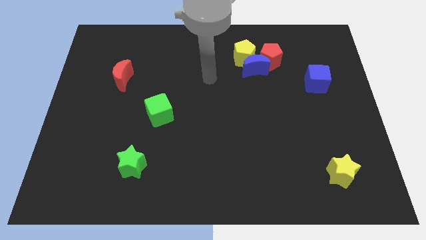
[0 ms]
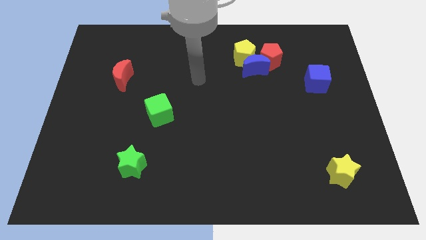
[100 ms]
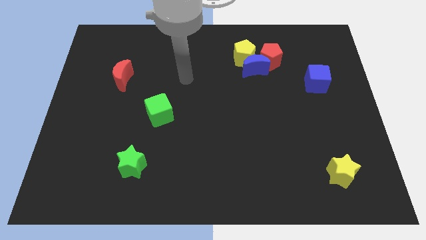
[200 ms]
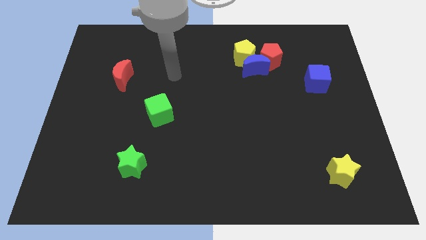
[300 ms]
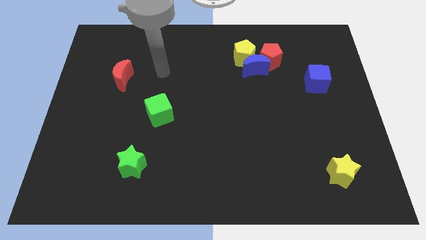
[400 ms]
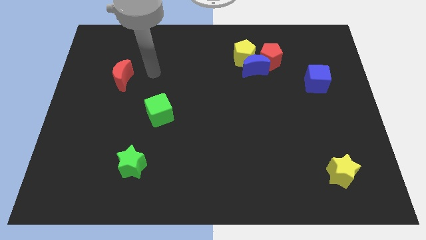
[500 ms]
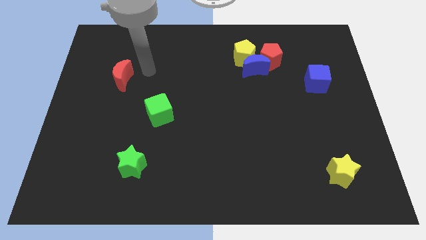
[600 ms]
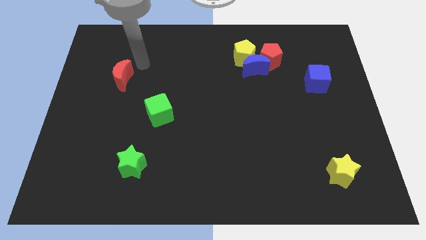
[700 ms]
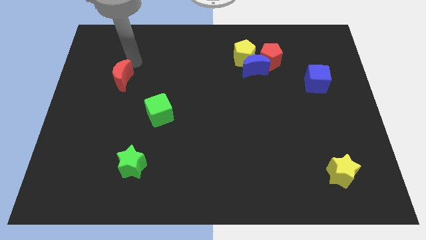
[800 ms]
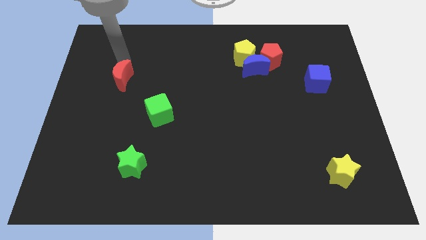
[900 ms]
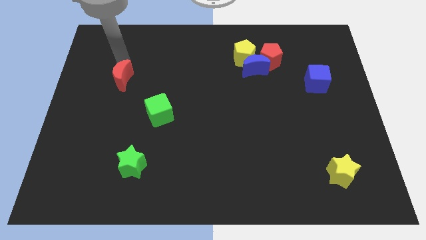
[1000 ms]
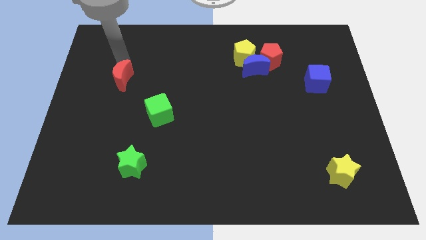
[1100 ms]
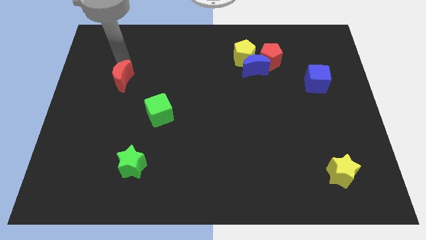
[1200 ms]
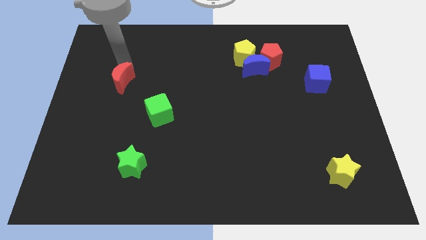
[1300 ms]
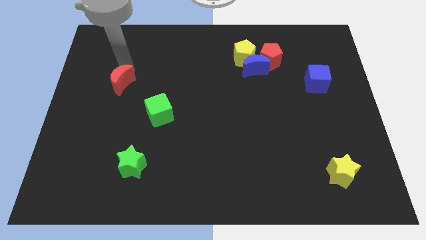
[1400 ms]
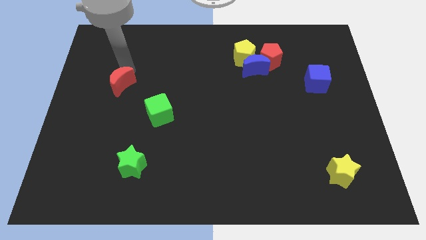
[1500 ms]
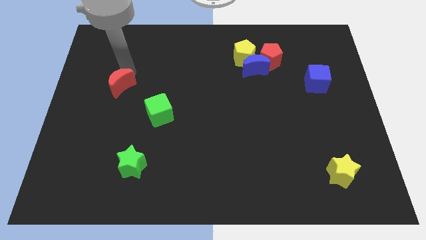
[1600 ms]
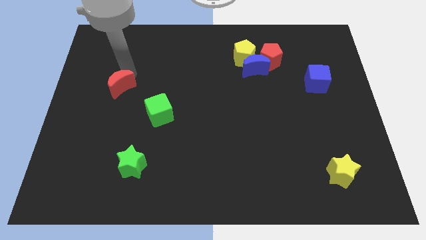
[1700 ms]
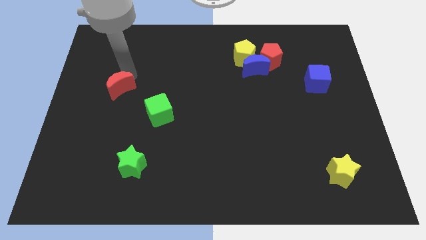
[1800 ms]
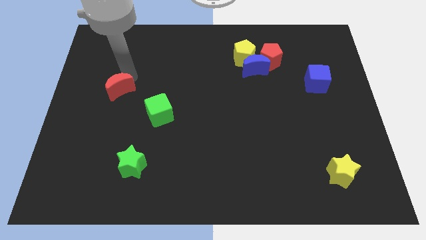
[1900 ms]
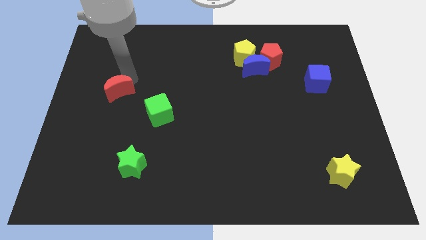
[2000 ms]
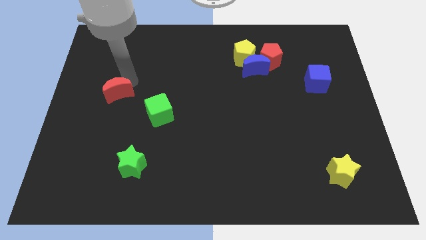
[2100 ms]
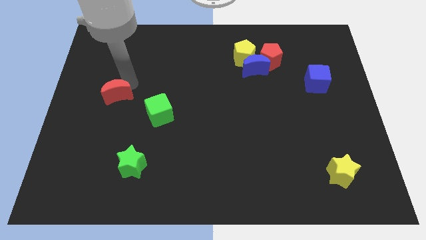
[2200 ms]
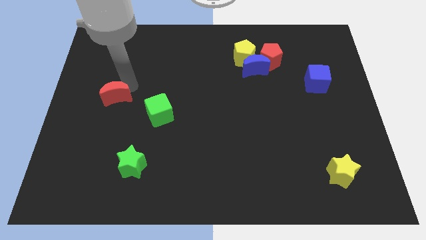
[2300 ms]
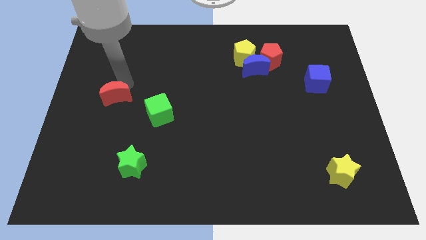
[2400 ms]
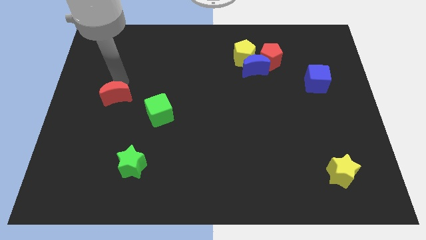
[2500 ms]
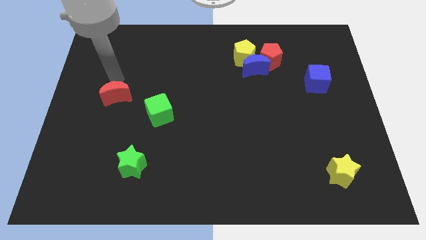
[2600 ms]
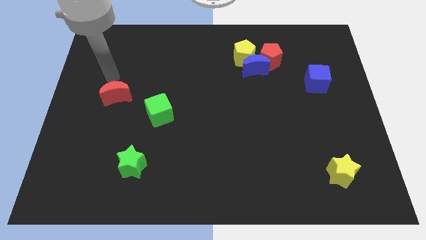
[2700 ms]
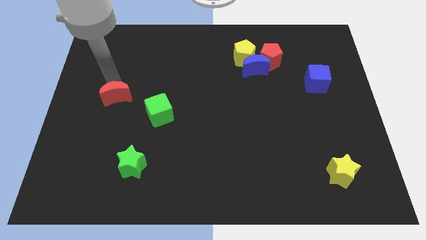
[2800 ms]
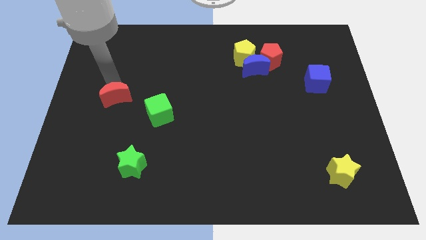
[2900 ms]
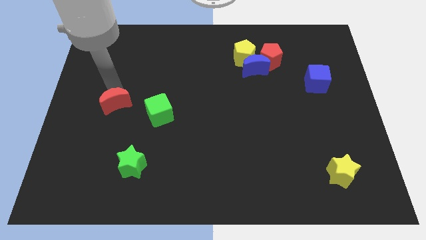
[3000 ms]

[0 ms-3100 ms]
push the red moon down a little bit

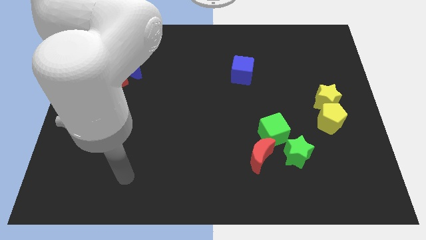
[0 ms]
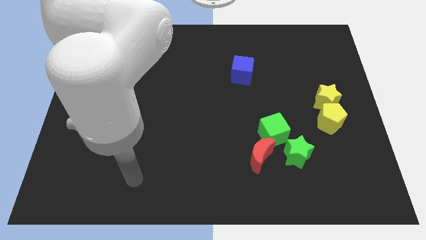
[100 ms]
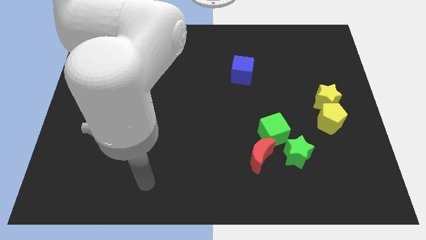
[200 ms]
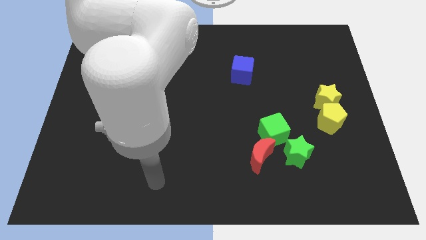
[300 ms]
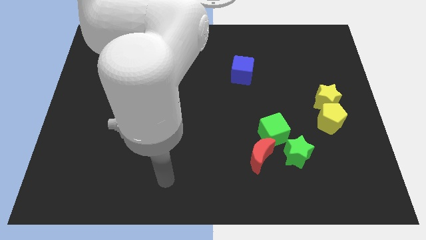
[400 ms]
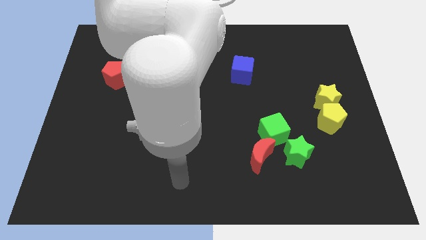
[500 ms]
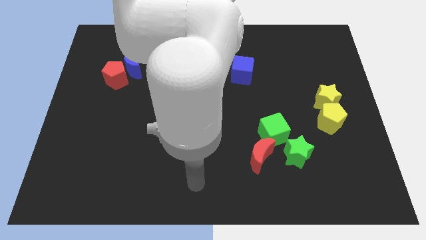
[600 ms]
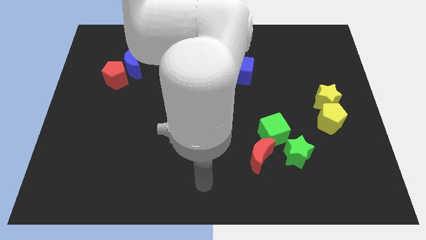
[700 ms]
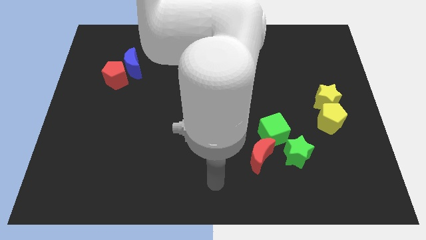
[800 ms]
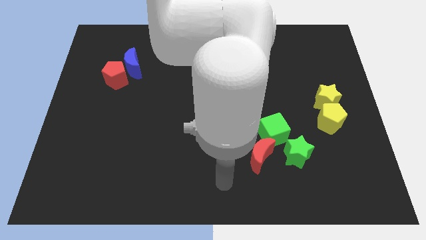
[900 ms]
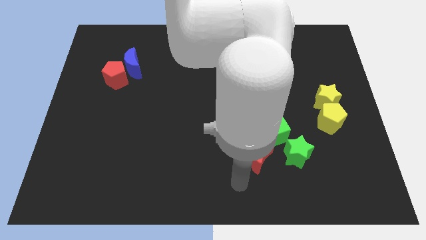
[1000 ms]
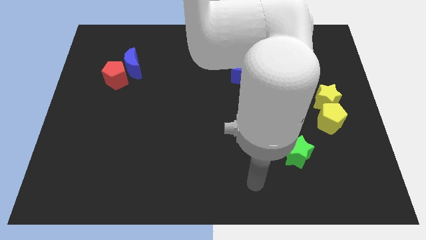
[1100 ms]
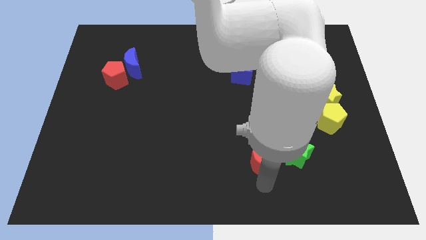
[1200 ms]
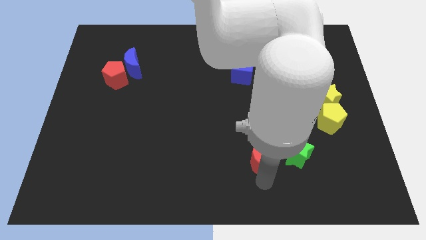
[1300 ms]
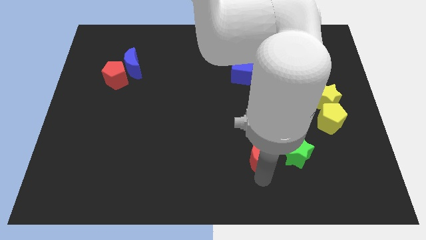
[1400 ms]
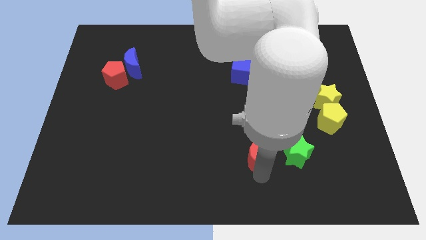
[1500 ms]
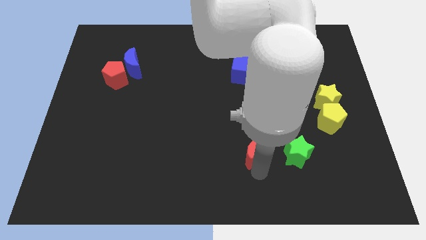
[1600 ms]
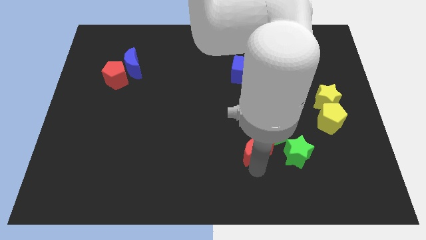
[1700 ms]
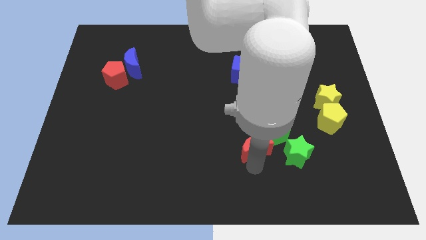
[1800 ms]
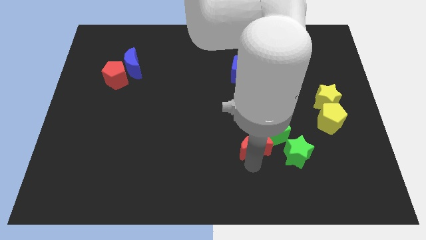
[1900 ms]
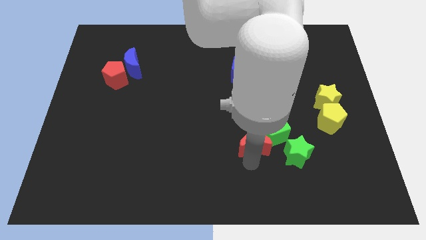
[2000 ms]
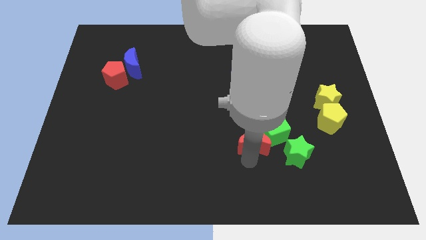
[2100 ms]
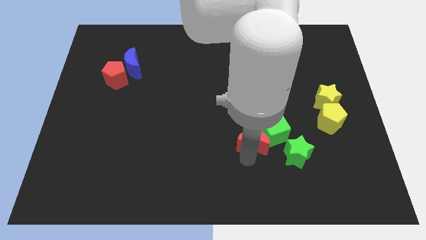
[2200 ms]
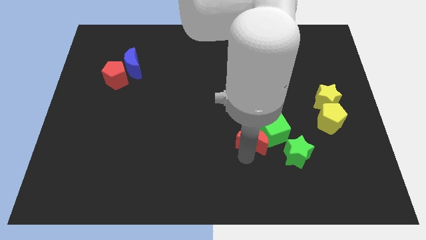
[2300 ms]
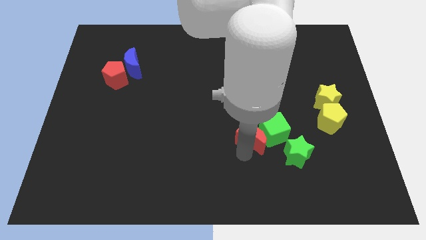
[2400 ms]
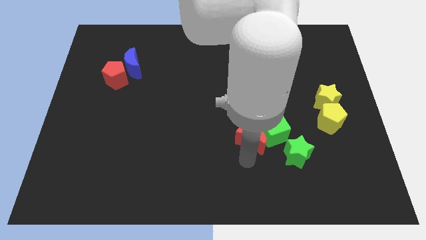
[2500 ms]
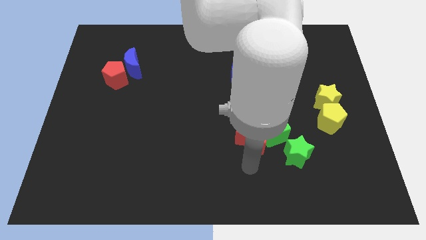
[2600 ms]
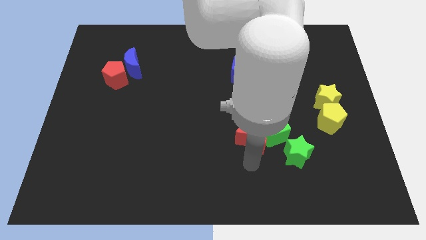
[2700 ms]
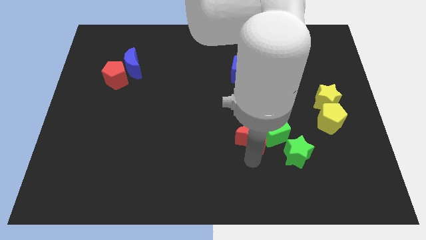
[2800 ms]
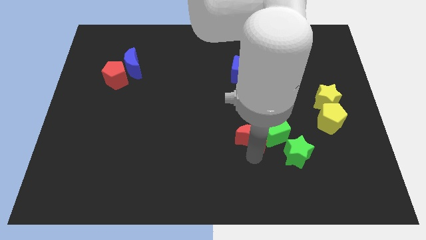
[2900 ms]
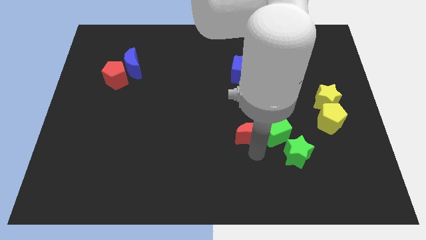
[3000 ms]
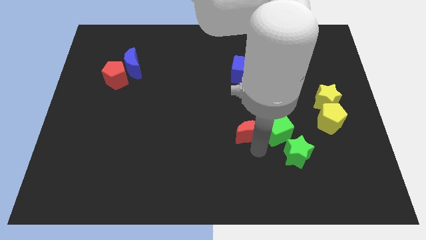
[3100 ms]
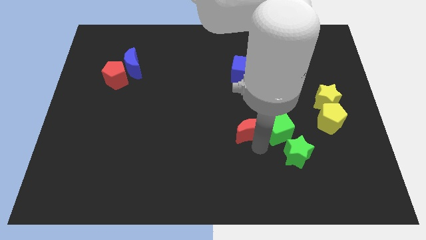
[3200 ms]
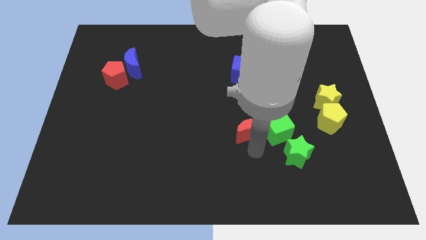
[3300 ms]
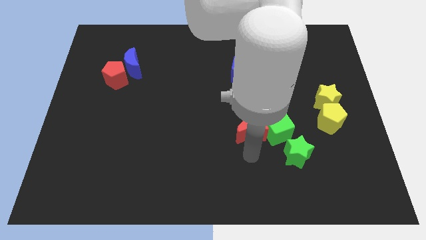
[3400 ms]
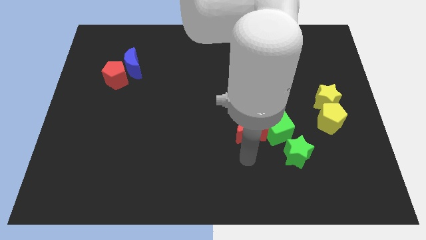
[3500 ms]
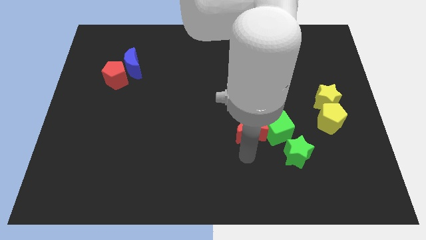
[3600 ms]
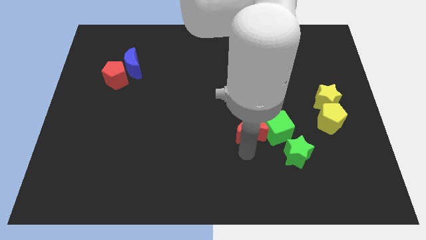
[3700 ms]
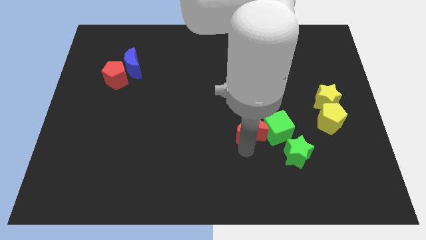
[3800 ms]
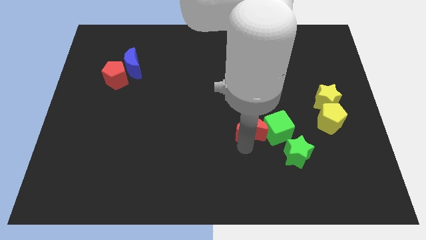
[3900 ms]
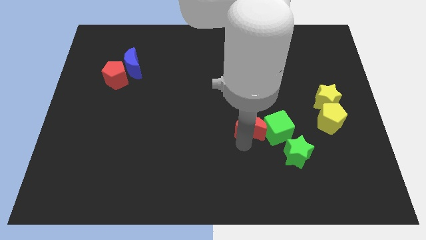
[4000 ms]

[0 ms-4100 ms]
slightly slide the red moon upwards

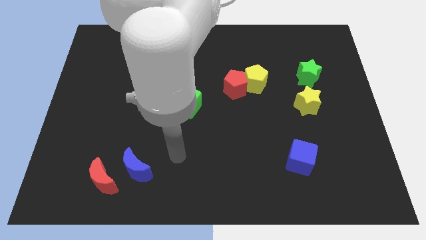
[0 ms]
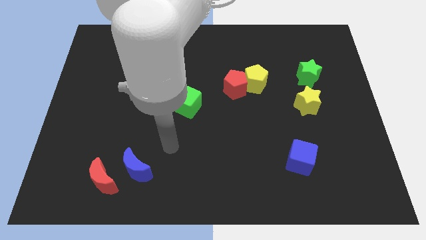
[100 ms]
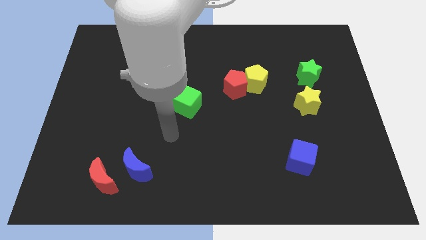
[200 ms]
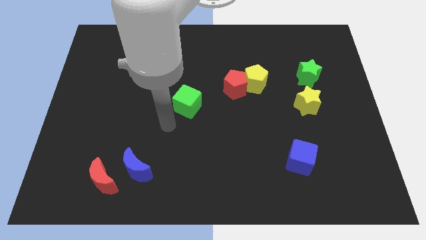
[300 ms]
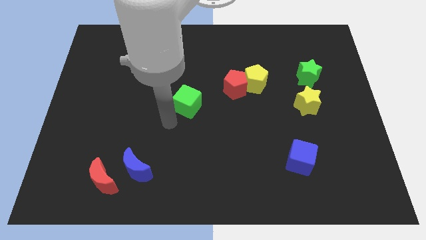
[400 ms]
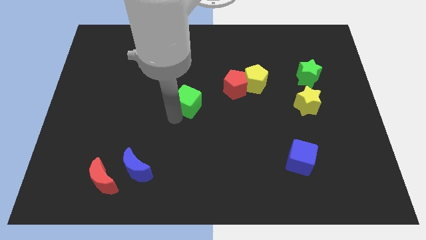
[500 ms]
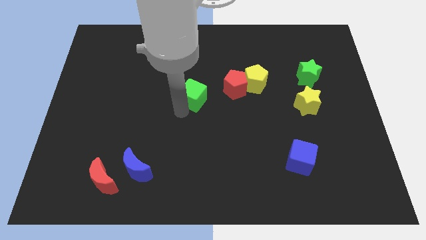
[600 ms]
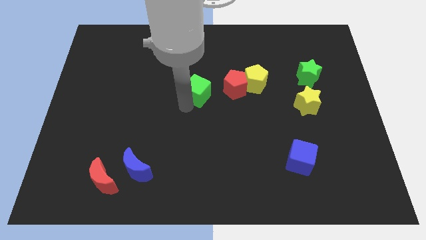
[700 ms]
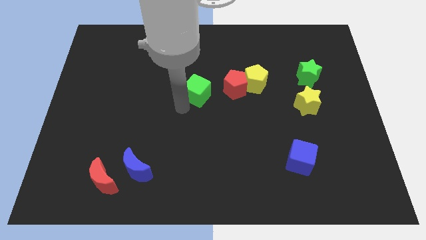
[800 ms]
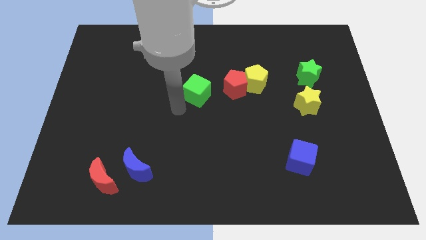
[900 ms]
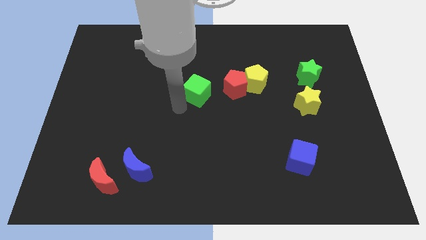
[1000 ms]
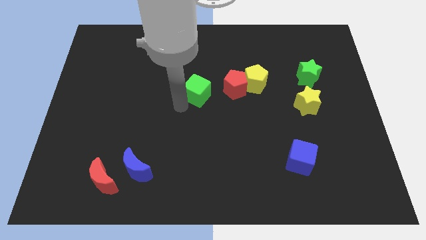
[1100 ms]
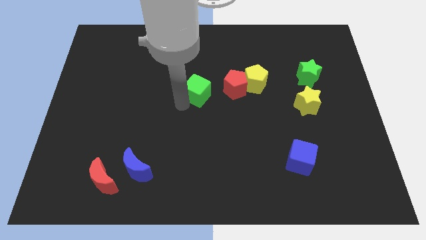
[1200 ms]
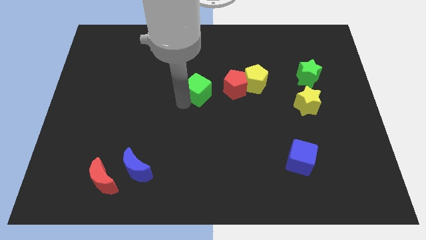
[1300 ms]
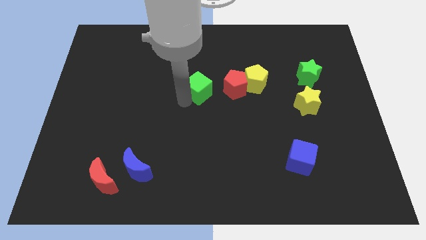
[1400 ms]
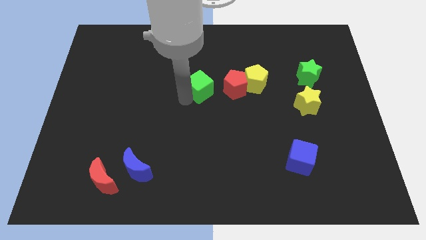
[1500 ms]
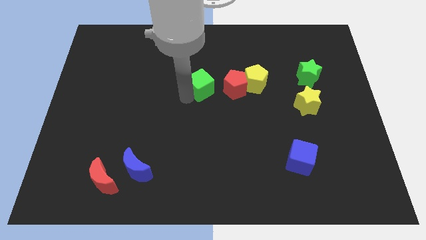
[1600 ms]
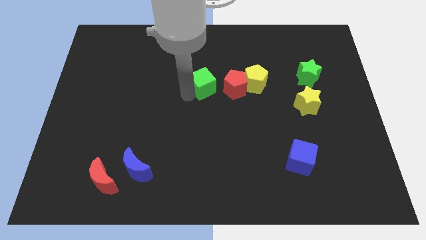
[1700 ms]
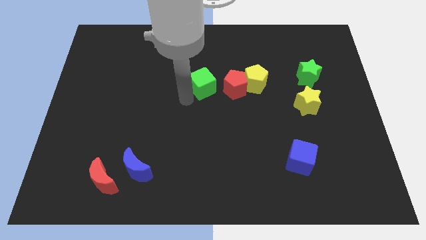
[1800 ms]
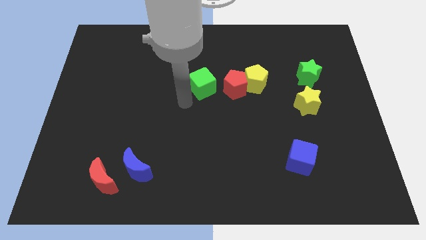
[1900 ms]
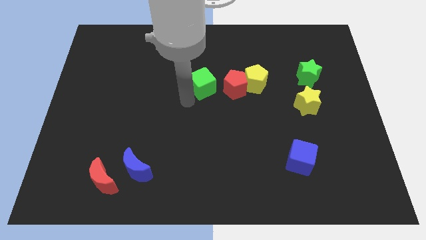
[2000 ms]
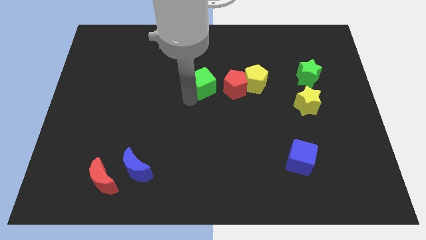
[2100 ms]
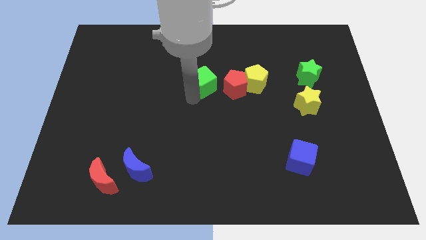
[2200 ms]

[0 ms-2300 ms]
push the green cube upwards and to the right diagonally a bit
